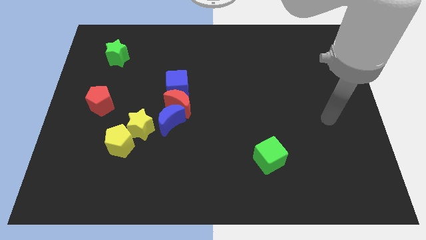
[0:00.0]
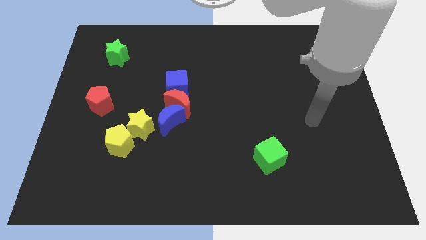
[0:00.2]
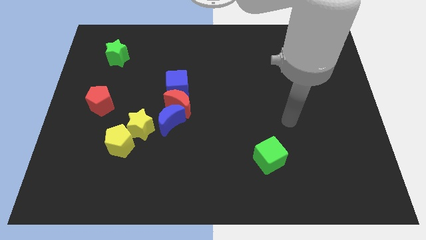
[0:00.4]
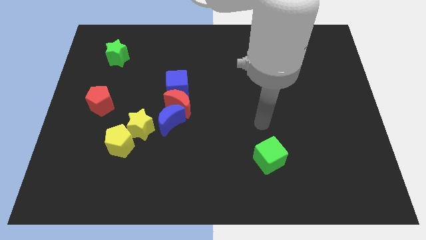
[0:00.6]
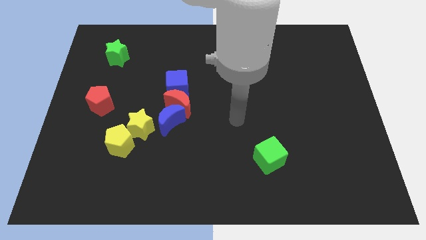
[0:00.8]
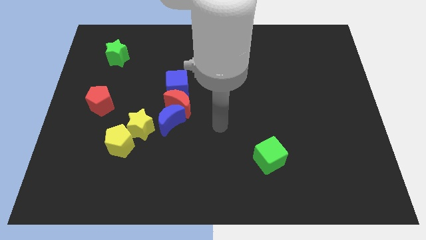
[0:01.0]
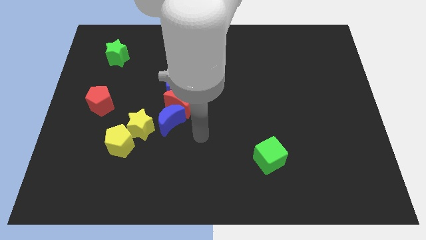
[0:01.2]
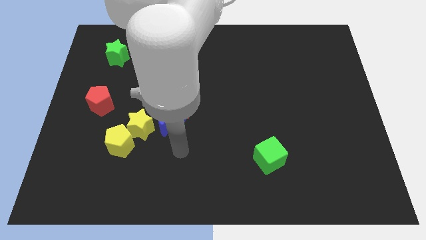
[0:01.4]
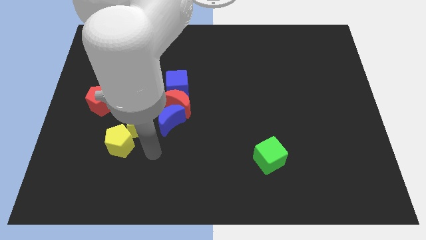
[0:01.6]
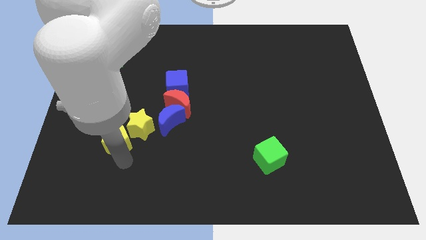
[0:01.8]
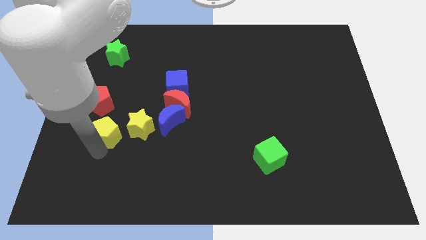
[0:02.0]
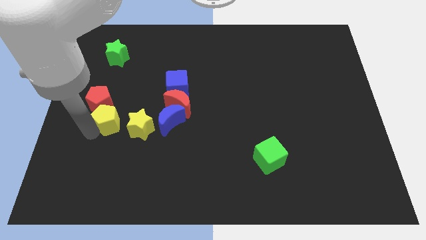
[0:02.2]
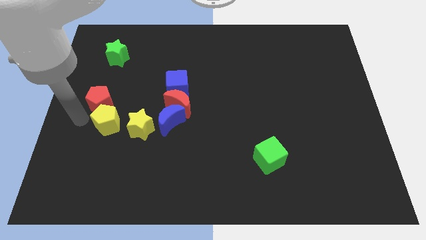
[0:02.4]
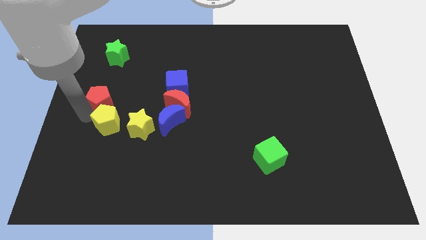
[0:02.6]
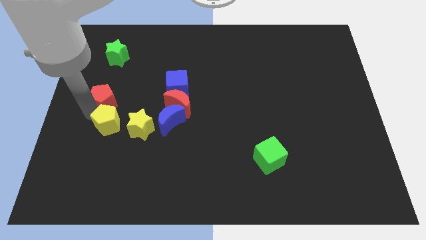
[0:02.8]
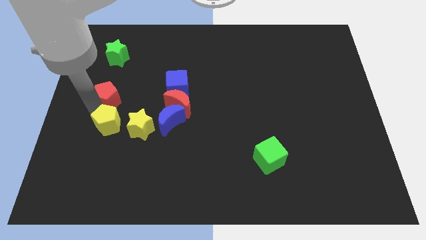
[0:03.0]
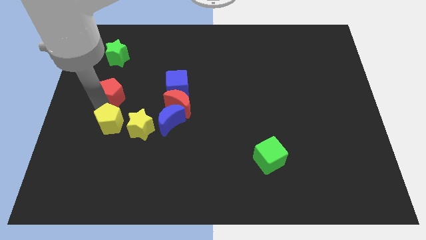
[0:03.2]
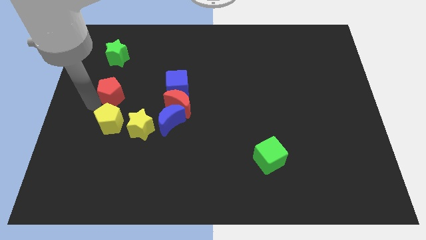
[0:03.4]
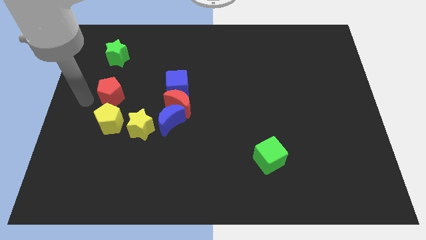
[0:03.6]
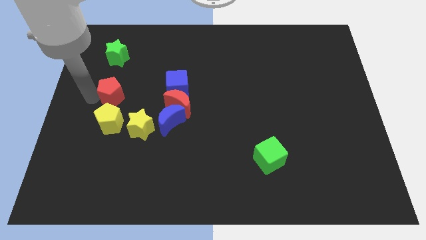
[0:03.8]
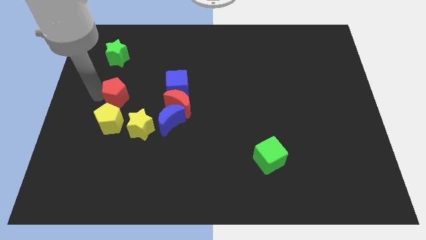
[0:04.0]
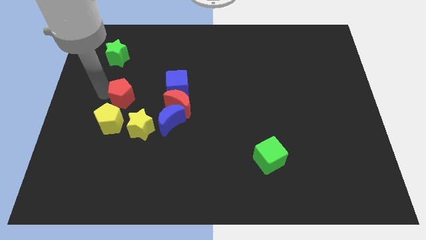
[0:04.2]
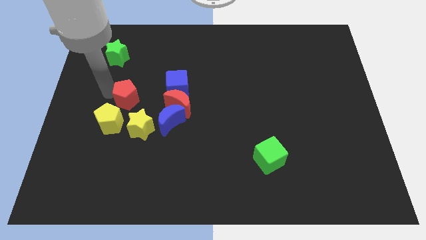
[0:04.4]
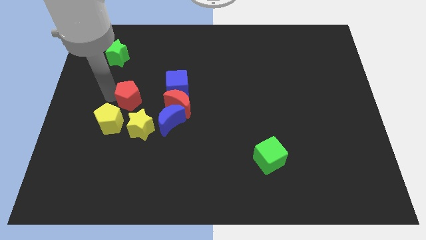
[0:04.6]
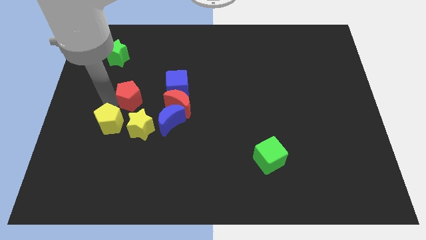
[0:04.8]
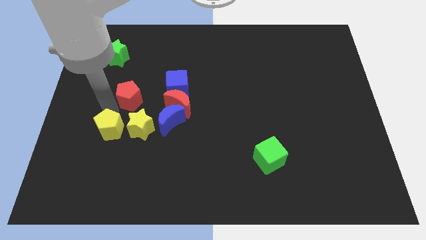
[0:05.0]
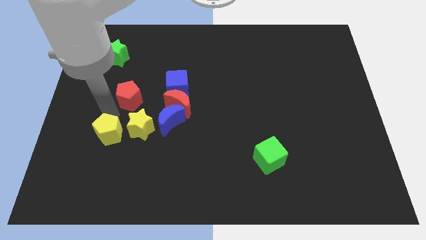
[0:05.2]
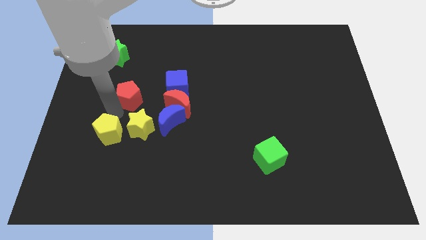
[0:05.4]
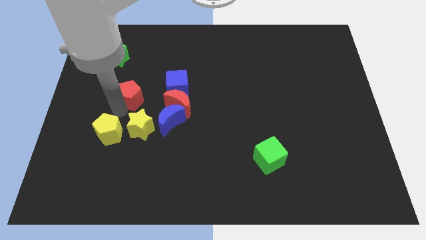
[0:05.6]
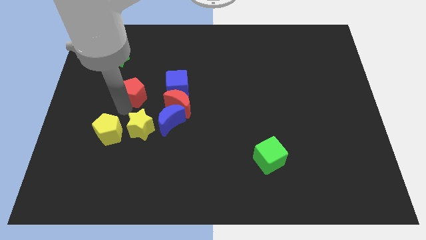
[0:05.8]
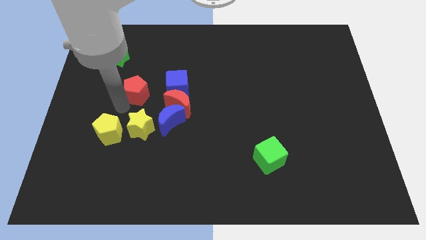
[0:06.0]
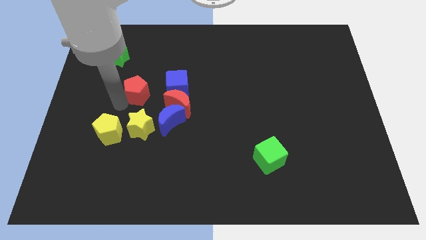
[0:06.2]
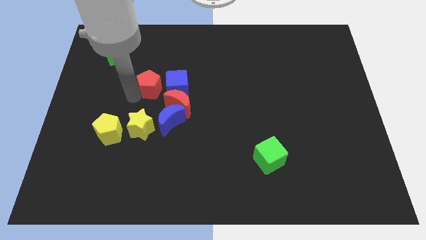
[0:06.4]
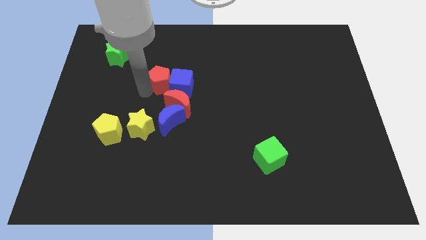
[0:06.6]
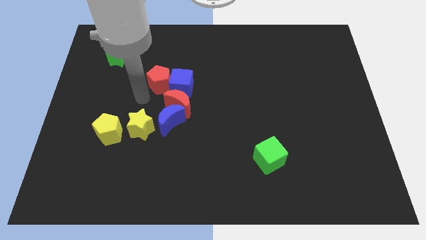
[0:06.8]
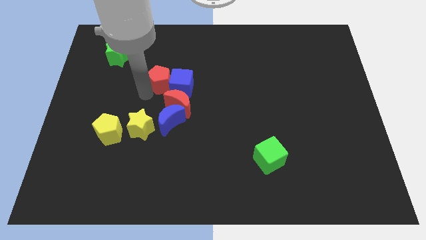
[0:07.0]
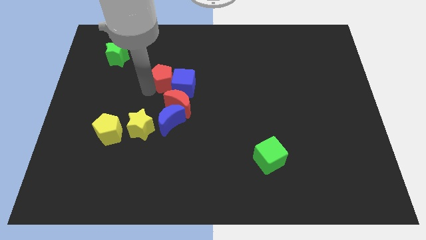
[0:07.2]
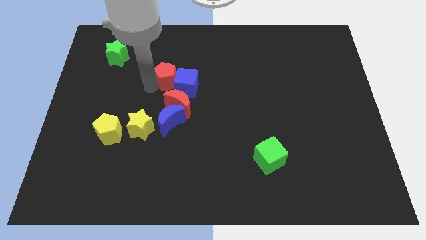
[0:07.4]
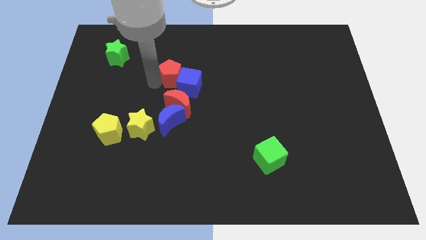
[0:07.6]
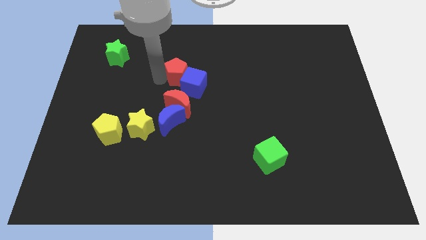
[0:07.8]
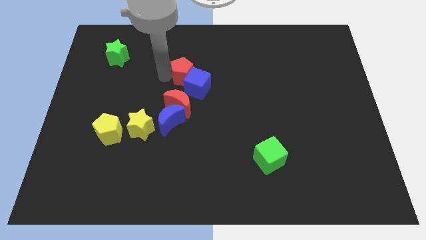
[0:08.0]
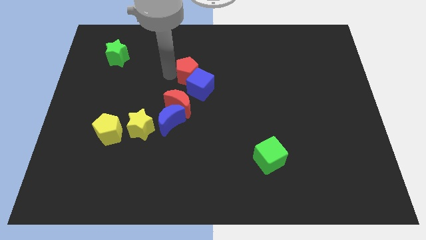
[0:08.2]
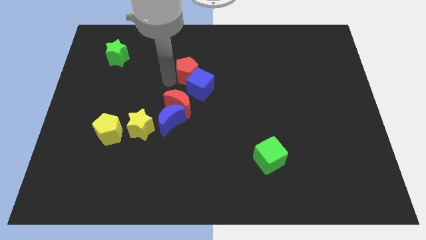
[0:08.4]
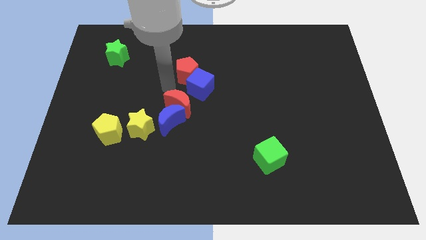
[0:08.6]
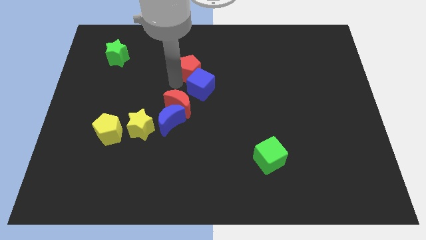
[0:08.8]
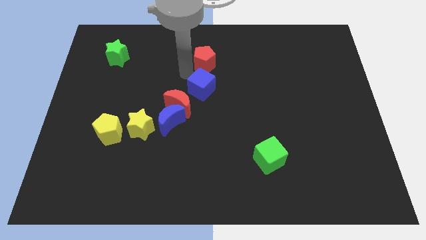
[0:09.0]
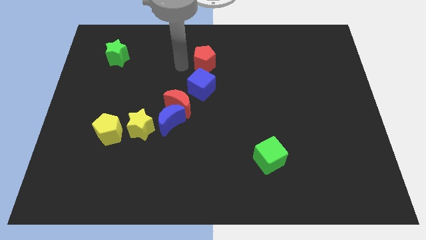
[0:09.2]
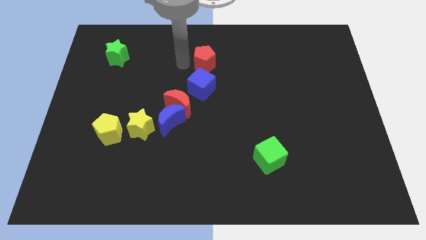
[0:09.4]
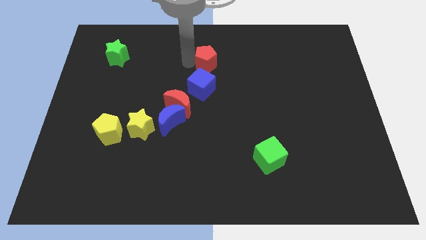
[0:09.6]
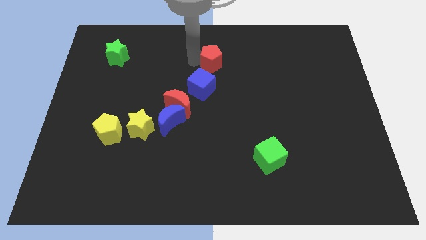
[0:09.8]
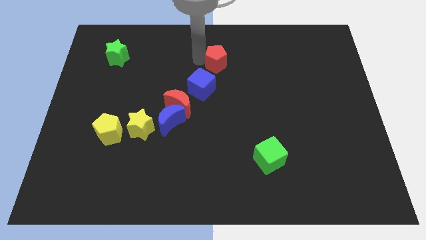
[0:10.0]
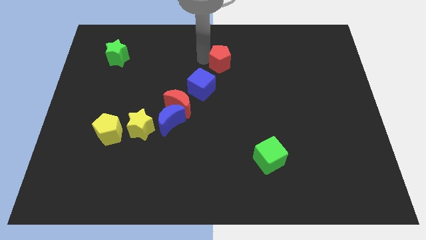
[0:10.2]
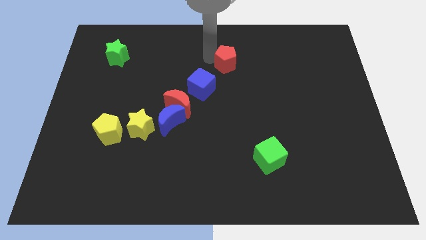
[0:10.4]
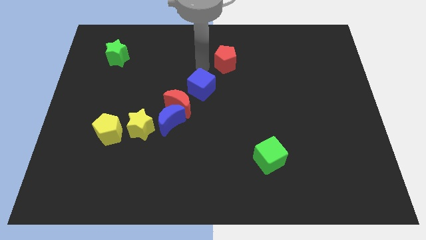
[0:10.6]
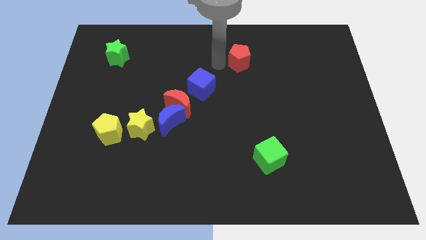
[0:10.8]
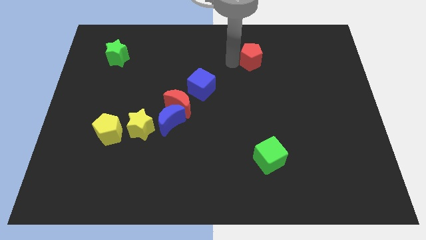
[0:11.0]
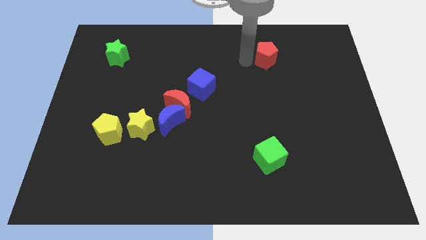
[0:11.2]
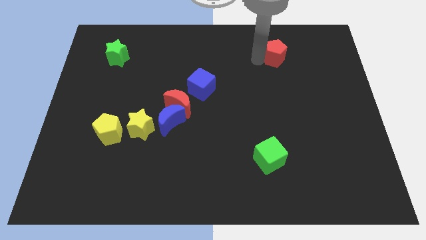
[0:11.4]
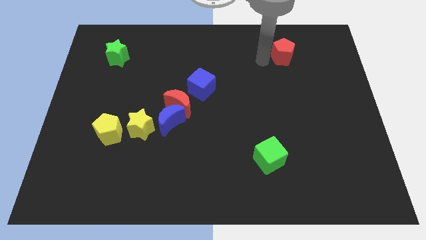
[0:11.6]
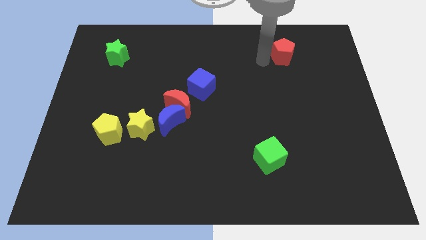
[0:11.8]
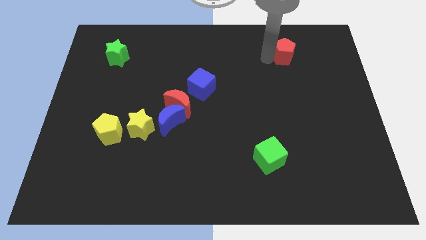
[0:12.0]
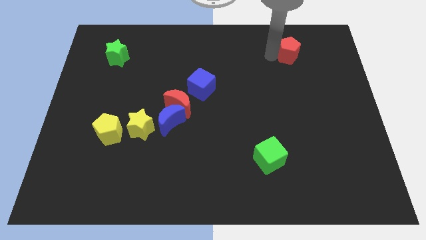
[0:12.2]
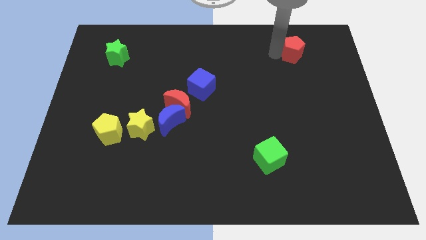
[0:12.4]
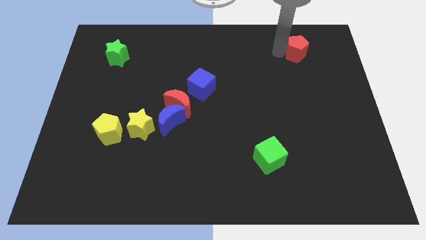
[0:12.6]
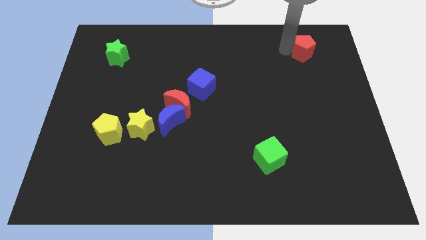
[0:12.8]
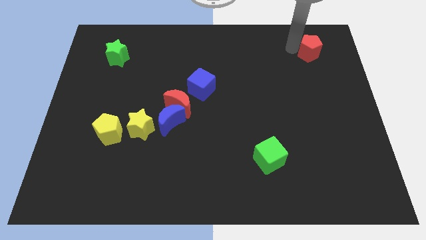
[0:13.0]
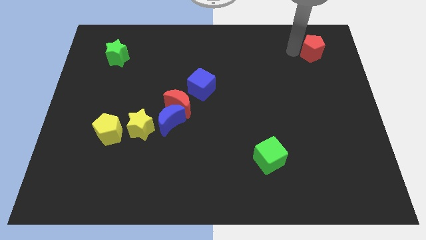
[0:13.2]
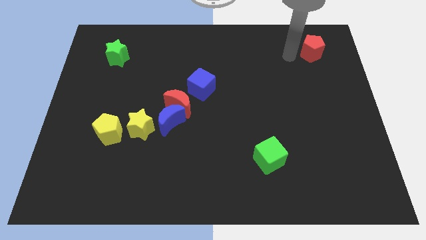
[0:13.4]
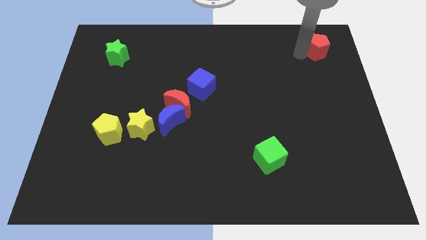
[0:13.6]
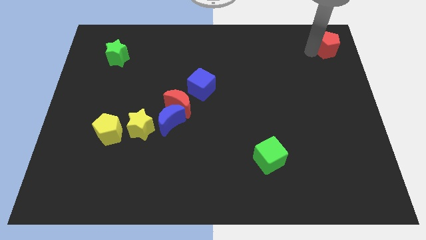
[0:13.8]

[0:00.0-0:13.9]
push the red pentagon to the top right
